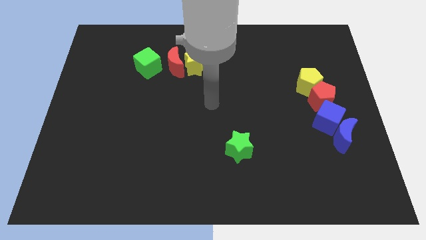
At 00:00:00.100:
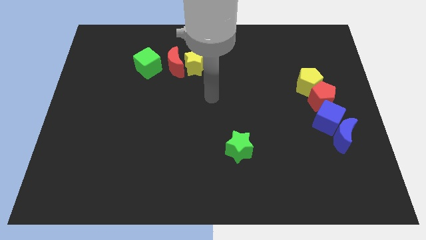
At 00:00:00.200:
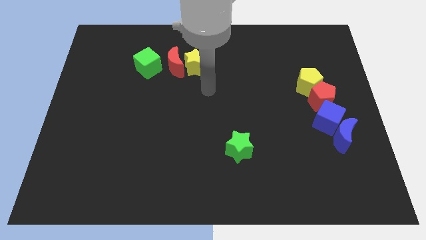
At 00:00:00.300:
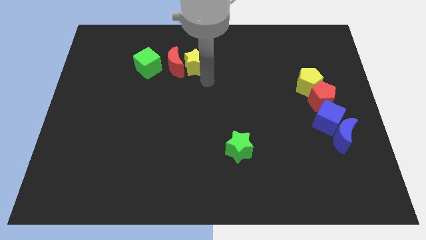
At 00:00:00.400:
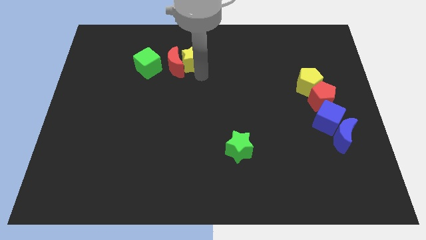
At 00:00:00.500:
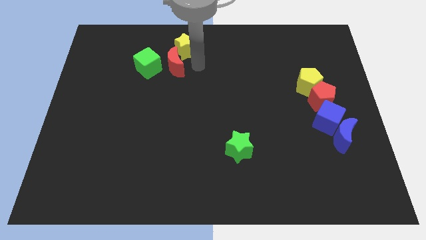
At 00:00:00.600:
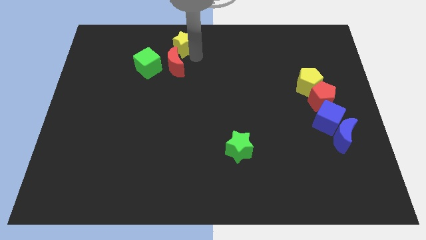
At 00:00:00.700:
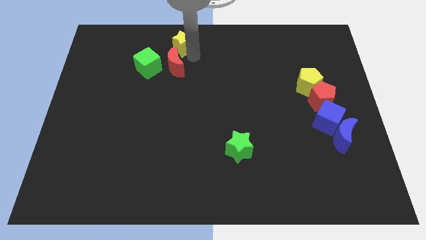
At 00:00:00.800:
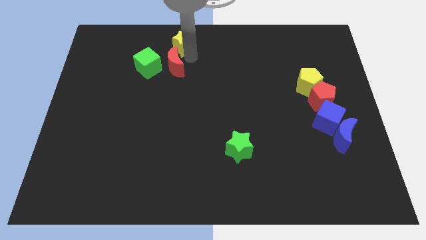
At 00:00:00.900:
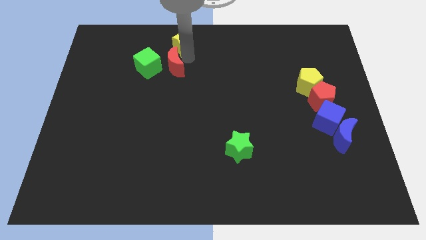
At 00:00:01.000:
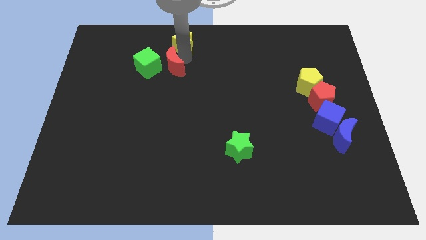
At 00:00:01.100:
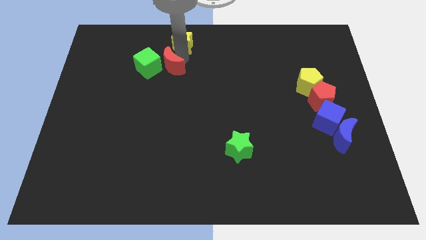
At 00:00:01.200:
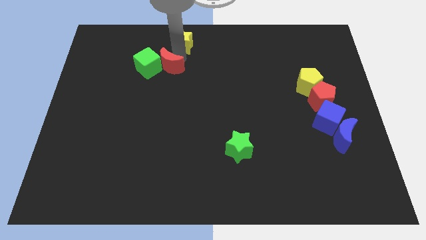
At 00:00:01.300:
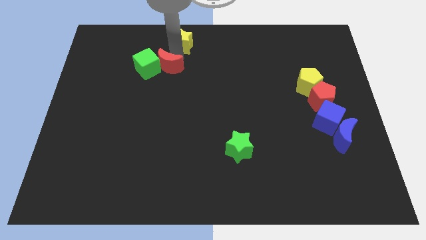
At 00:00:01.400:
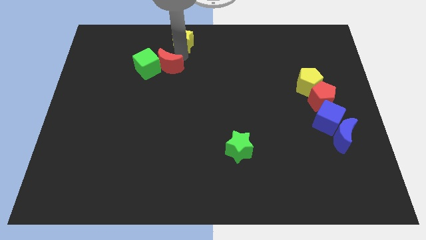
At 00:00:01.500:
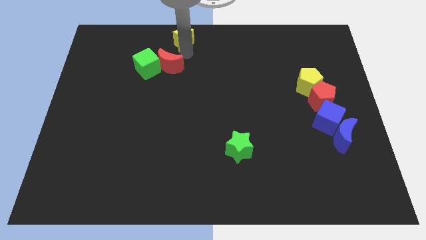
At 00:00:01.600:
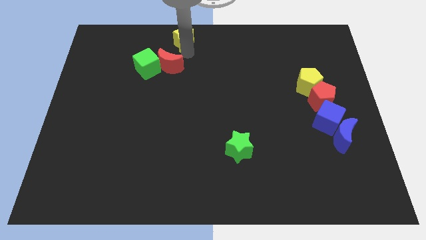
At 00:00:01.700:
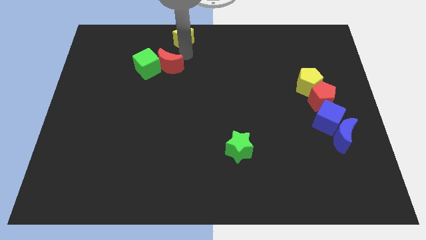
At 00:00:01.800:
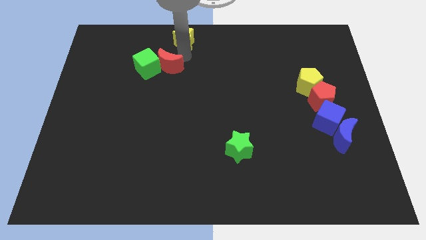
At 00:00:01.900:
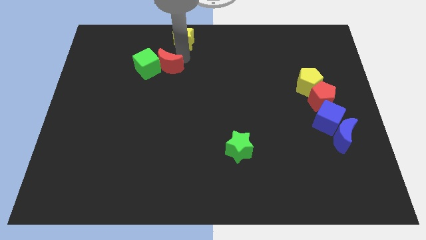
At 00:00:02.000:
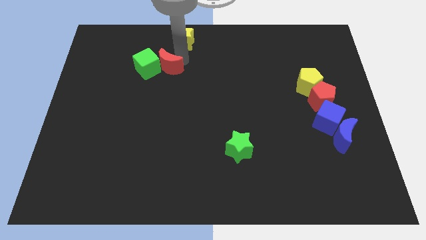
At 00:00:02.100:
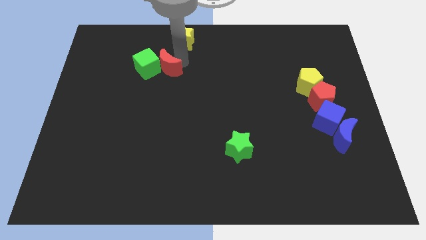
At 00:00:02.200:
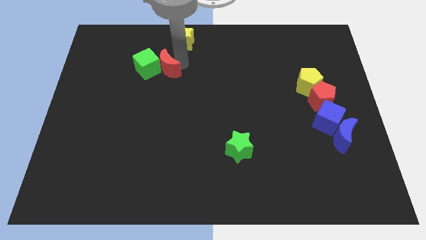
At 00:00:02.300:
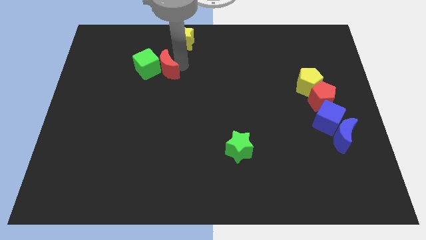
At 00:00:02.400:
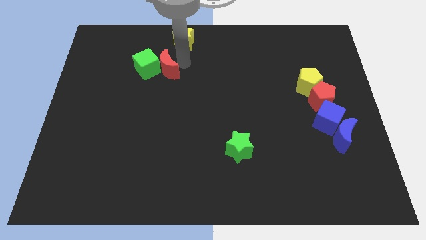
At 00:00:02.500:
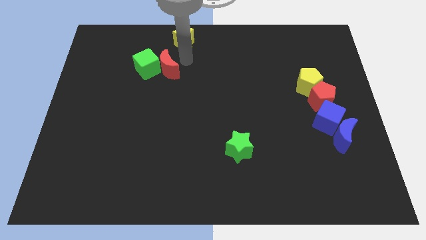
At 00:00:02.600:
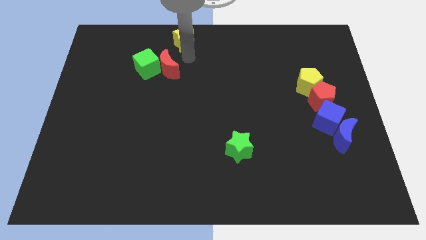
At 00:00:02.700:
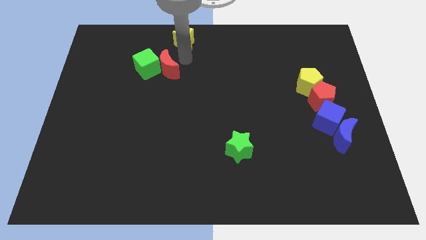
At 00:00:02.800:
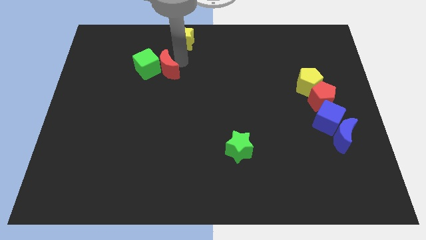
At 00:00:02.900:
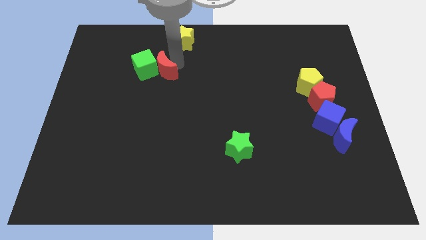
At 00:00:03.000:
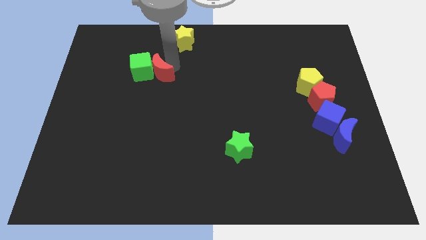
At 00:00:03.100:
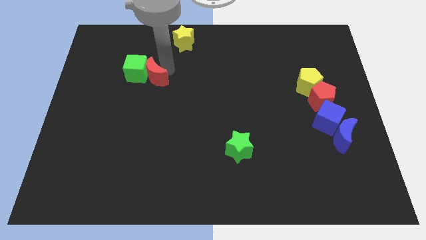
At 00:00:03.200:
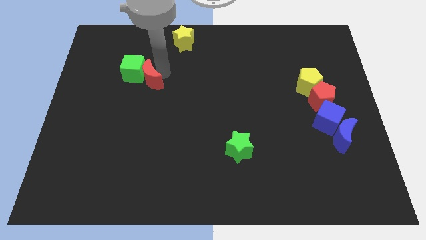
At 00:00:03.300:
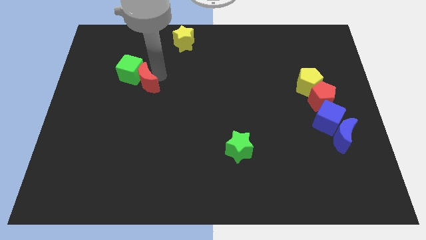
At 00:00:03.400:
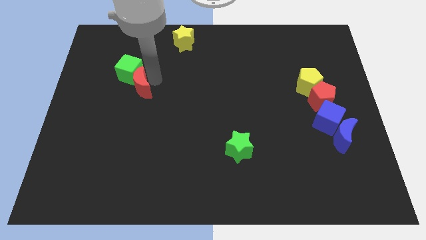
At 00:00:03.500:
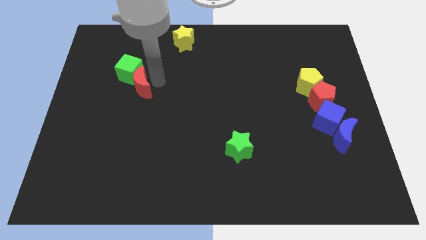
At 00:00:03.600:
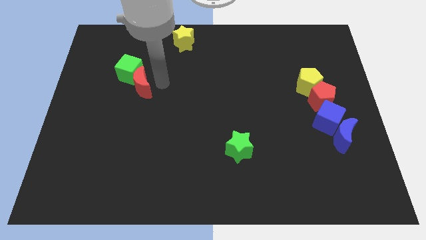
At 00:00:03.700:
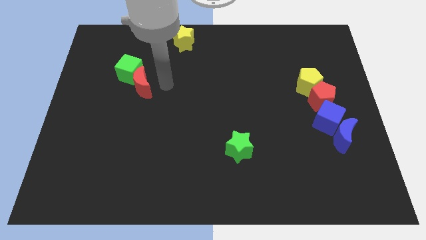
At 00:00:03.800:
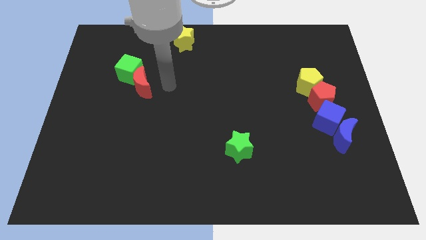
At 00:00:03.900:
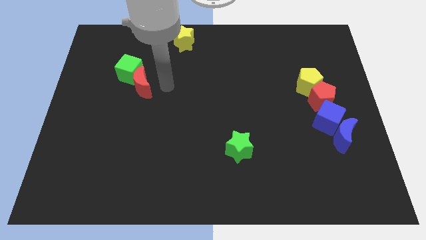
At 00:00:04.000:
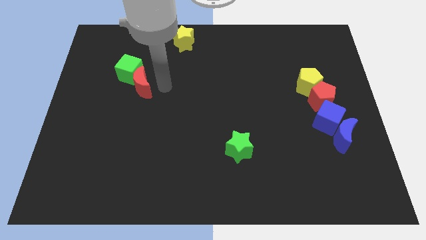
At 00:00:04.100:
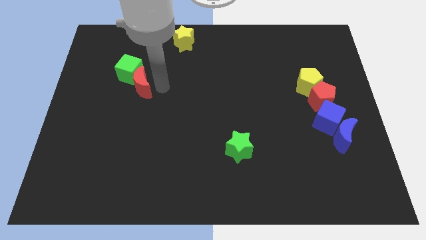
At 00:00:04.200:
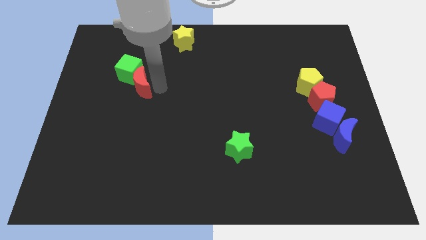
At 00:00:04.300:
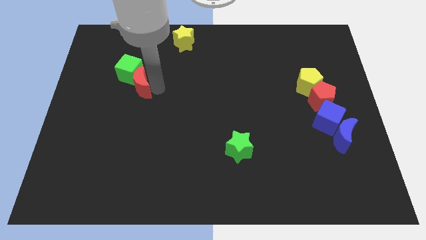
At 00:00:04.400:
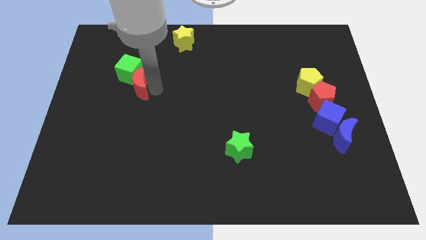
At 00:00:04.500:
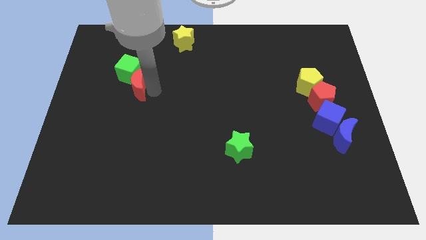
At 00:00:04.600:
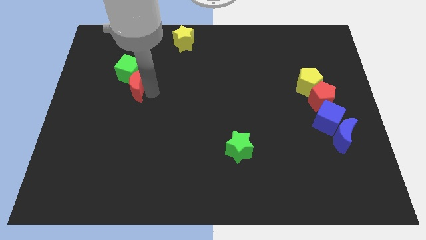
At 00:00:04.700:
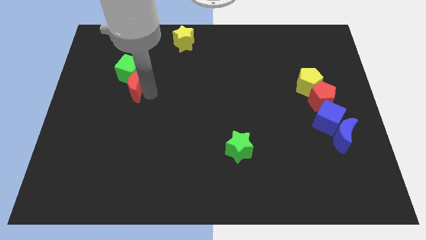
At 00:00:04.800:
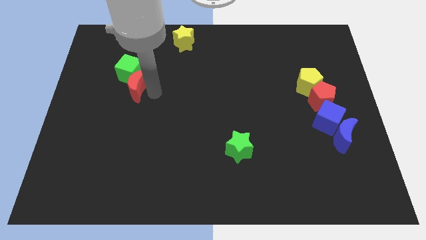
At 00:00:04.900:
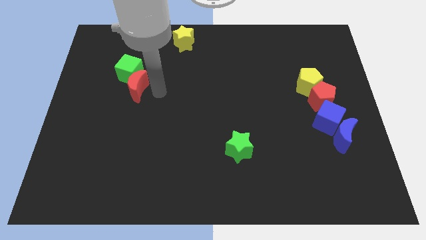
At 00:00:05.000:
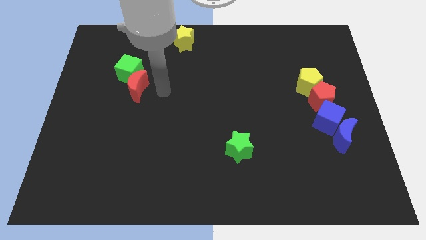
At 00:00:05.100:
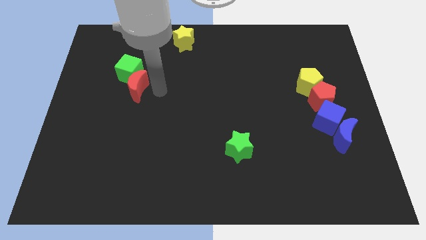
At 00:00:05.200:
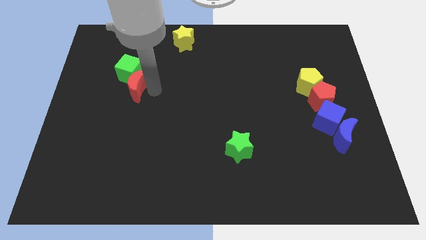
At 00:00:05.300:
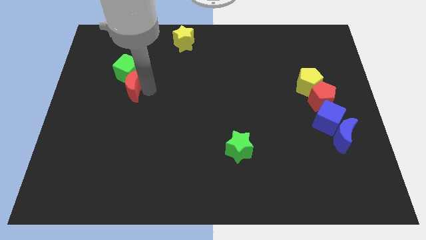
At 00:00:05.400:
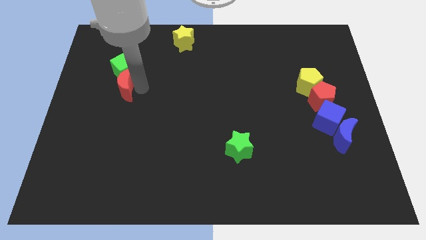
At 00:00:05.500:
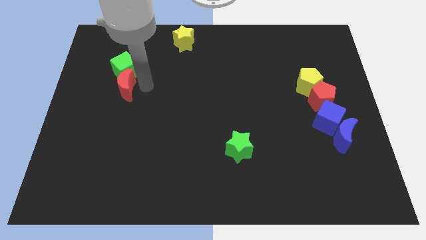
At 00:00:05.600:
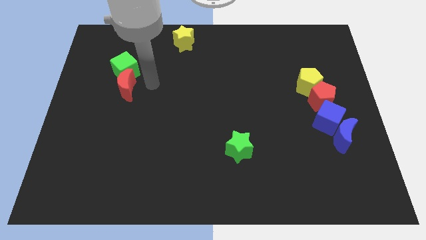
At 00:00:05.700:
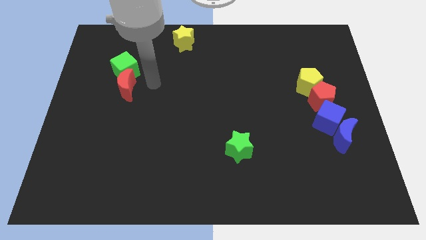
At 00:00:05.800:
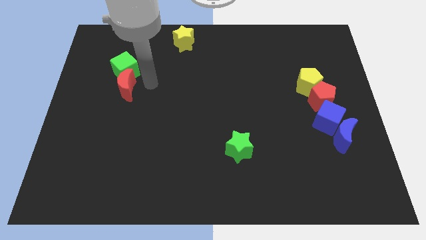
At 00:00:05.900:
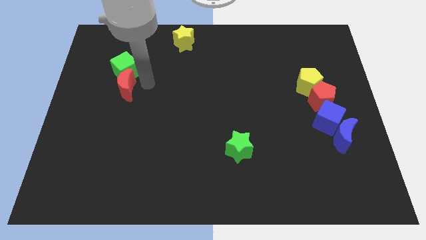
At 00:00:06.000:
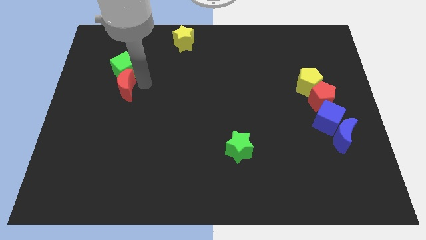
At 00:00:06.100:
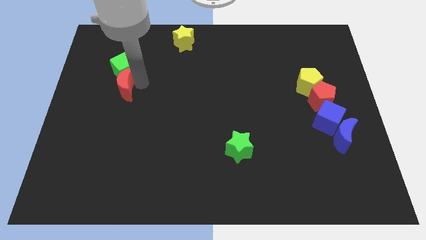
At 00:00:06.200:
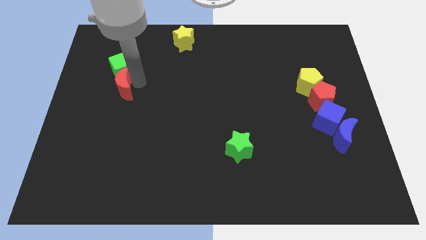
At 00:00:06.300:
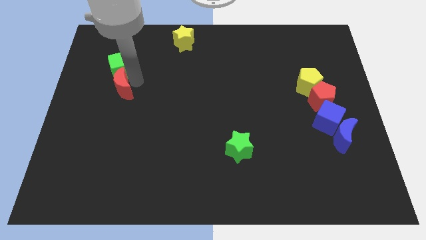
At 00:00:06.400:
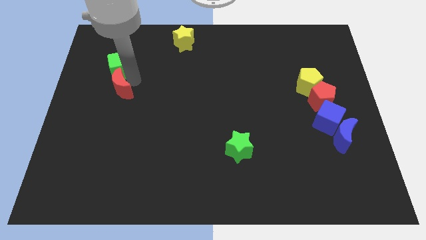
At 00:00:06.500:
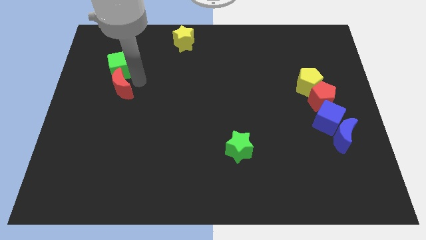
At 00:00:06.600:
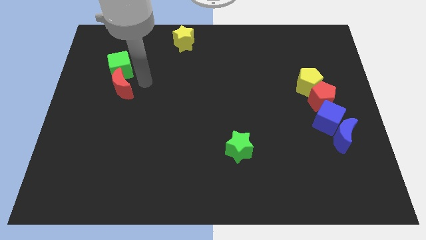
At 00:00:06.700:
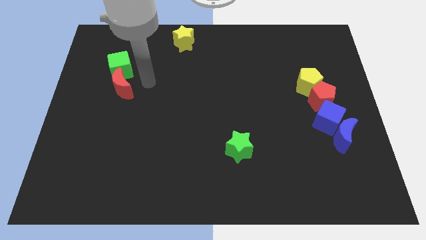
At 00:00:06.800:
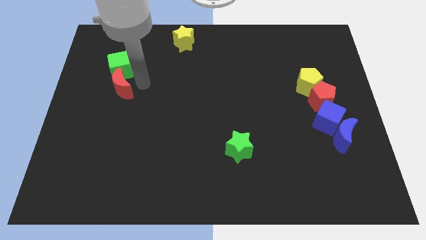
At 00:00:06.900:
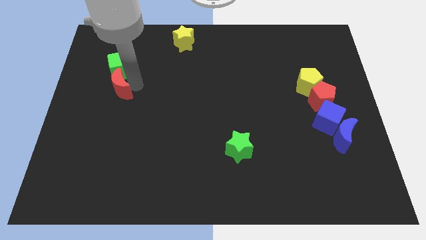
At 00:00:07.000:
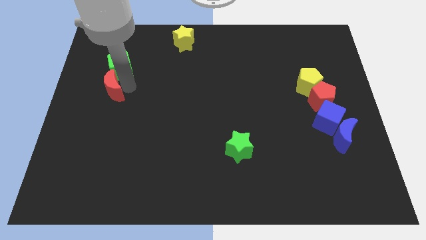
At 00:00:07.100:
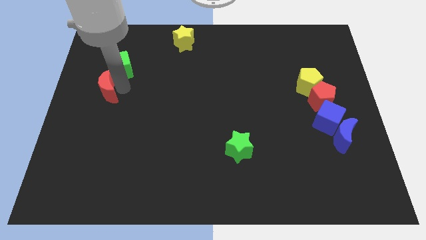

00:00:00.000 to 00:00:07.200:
move the red moon to the left side
